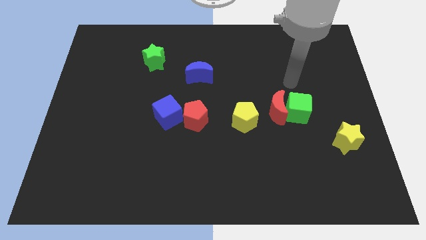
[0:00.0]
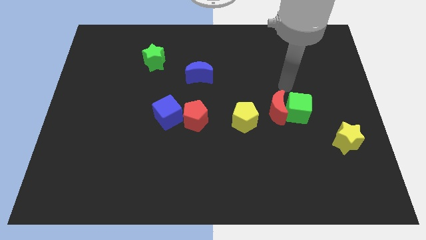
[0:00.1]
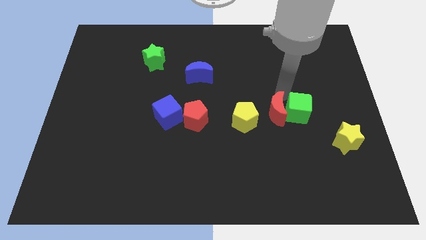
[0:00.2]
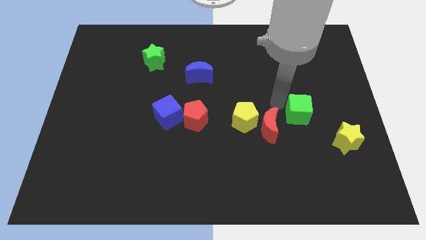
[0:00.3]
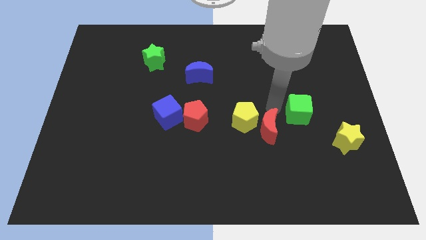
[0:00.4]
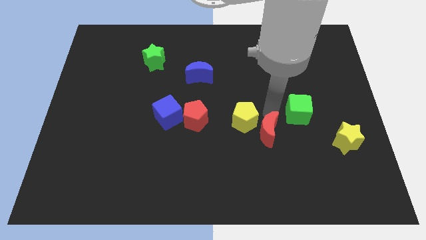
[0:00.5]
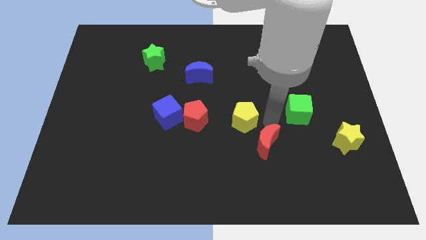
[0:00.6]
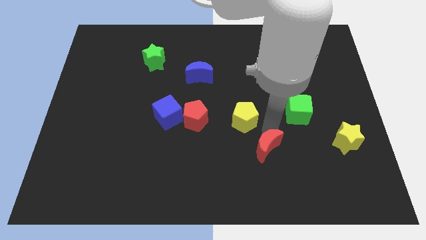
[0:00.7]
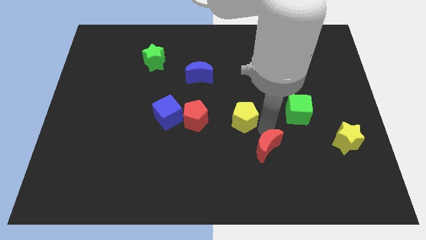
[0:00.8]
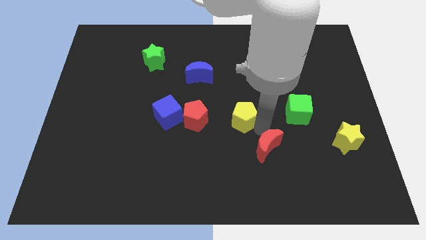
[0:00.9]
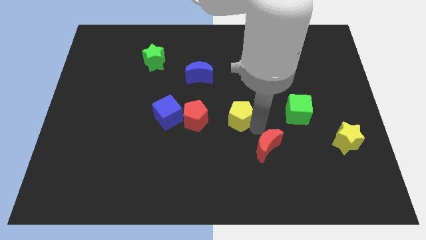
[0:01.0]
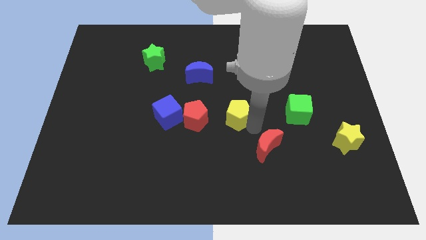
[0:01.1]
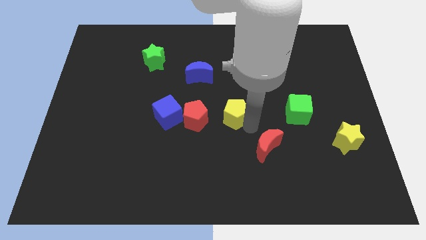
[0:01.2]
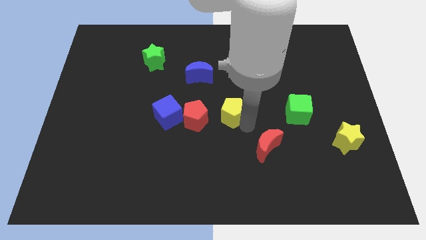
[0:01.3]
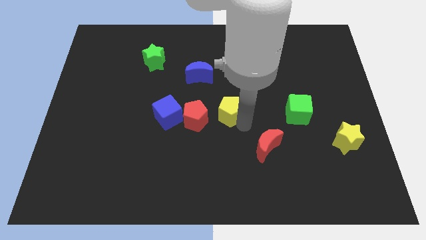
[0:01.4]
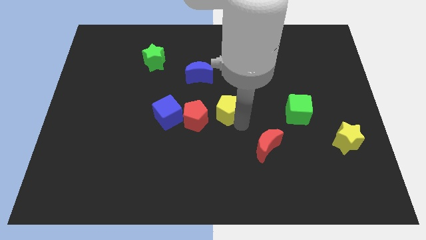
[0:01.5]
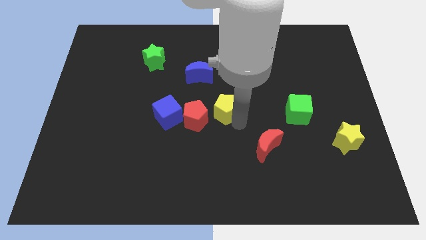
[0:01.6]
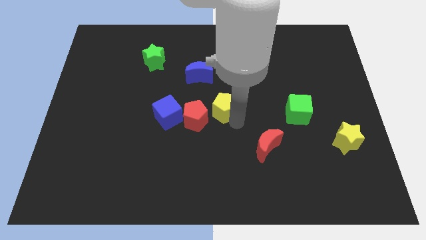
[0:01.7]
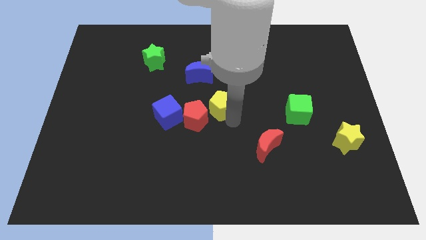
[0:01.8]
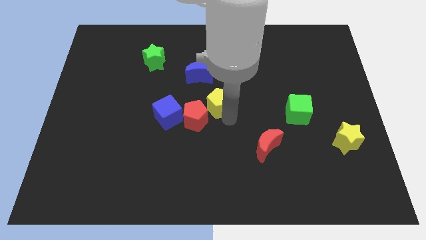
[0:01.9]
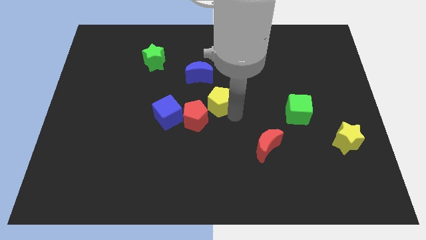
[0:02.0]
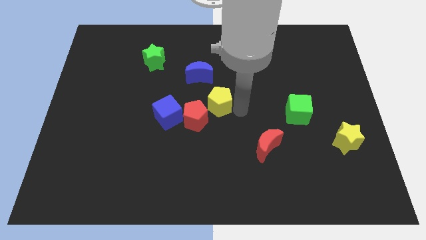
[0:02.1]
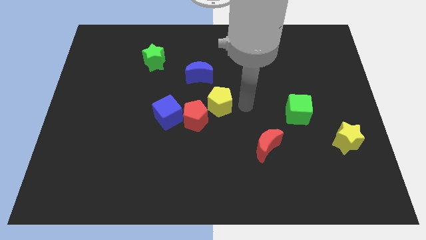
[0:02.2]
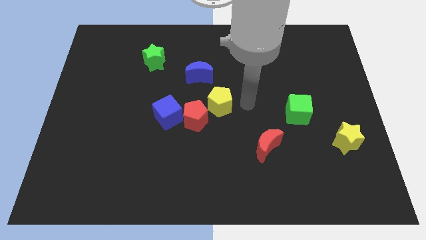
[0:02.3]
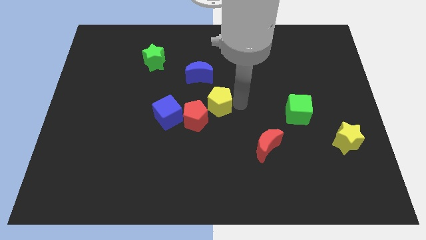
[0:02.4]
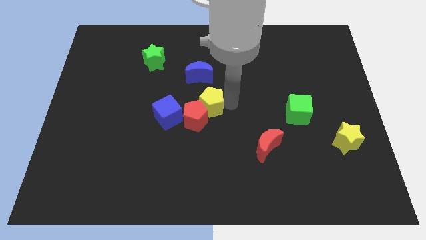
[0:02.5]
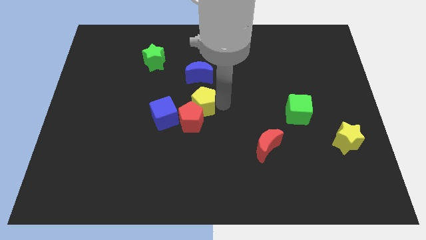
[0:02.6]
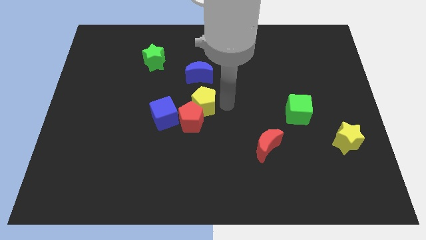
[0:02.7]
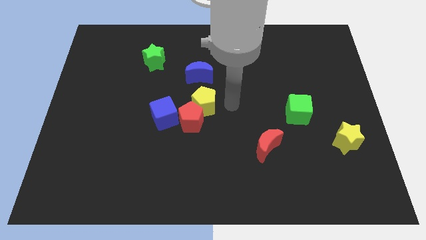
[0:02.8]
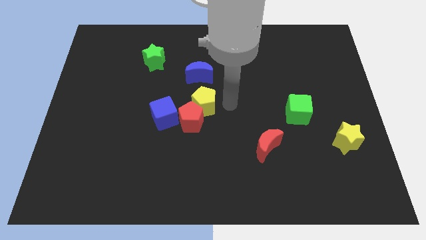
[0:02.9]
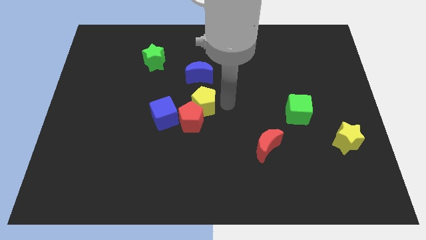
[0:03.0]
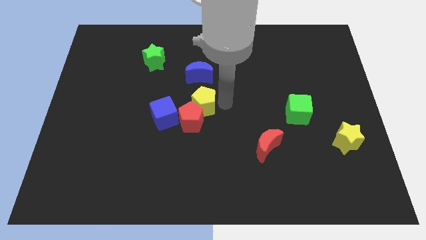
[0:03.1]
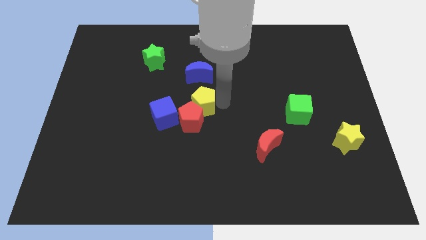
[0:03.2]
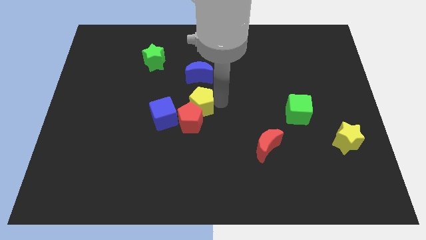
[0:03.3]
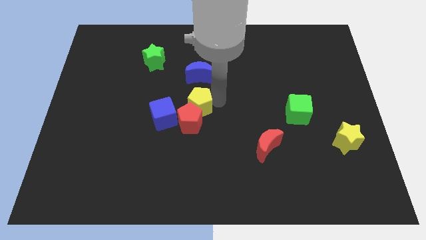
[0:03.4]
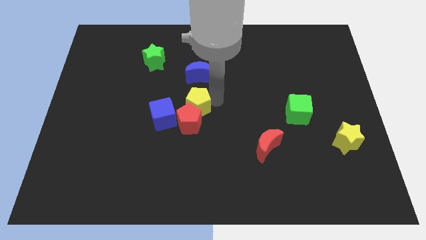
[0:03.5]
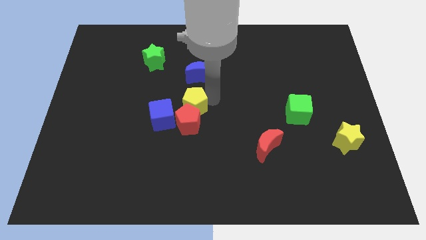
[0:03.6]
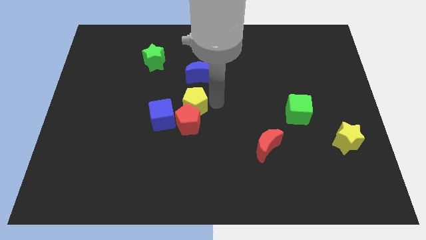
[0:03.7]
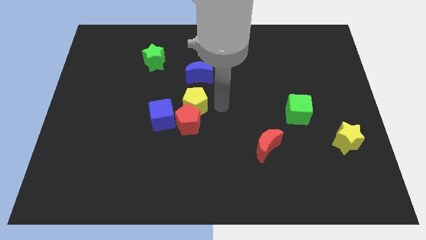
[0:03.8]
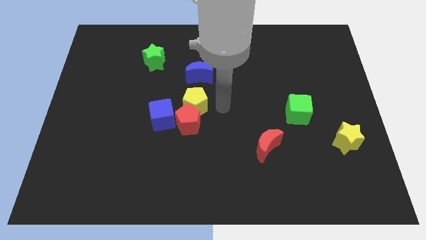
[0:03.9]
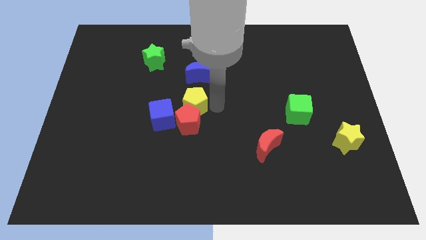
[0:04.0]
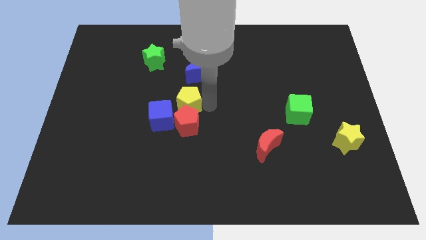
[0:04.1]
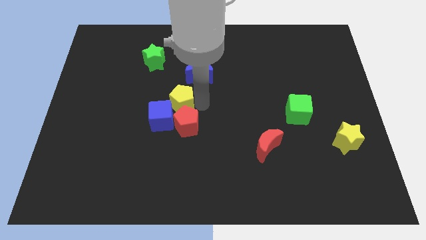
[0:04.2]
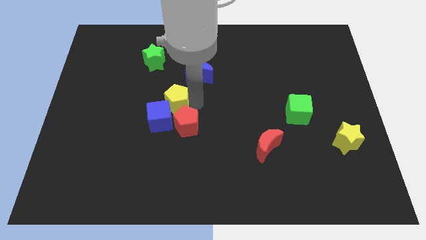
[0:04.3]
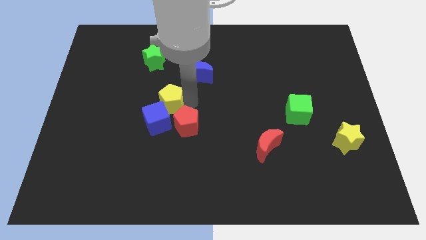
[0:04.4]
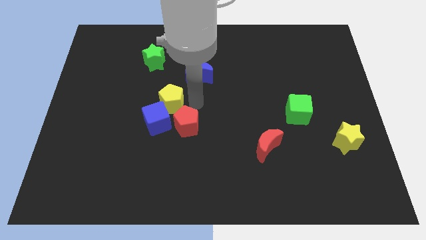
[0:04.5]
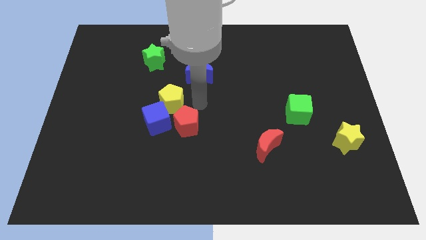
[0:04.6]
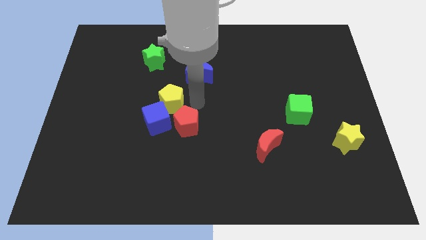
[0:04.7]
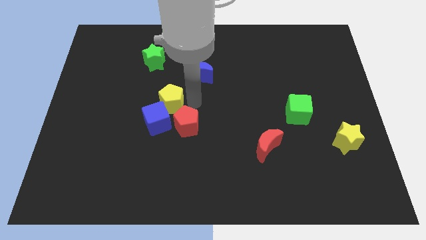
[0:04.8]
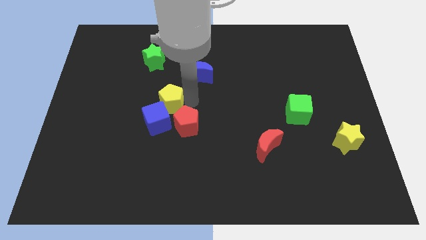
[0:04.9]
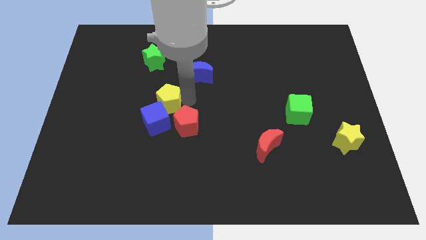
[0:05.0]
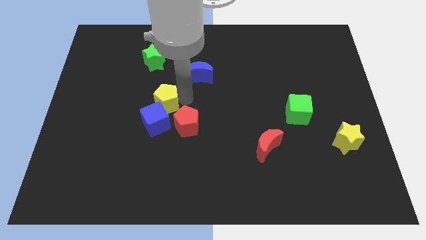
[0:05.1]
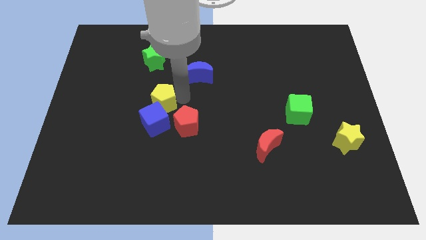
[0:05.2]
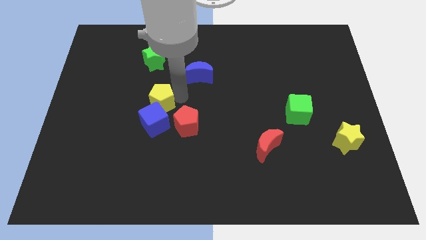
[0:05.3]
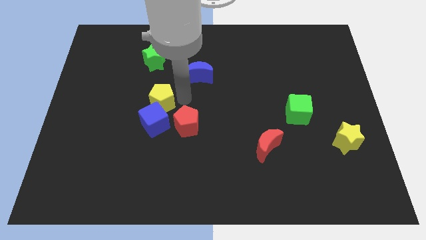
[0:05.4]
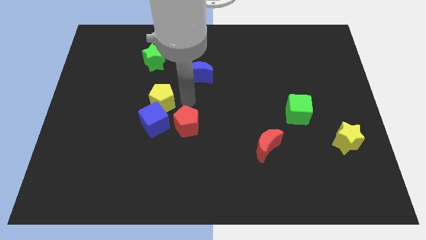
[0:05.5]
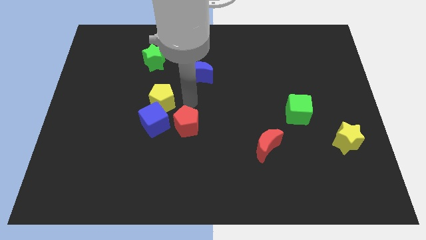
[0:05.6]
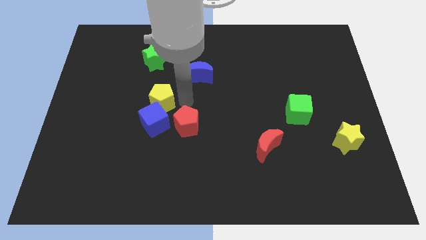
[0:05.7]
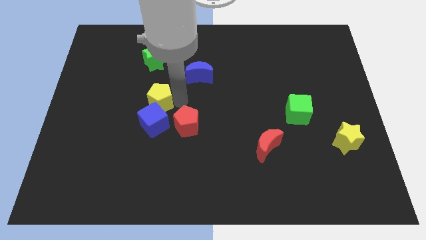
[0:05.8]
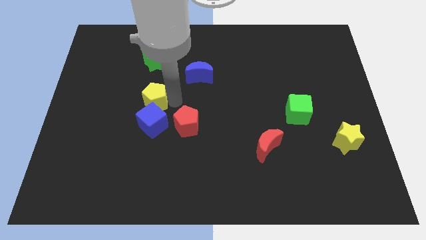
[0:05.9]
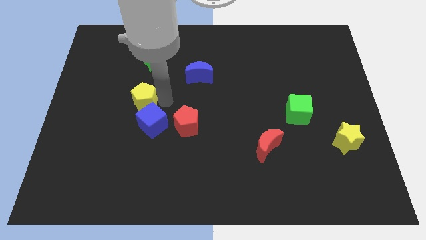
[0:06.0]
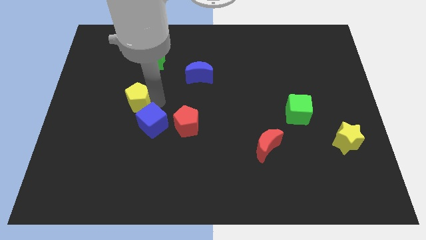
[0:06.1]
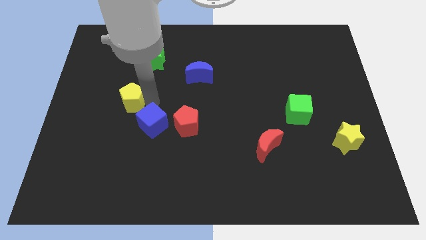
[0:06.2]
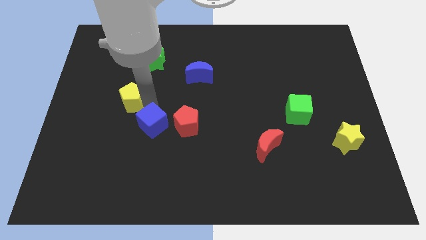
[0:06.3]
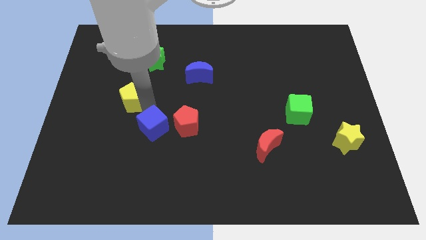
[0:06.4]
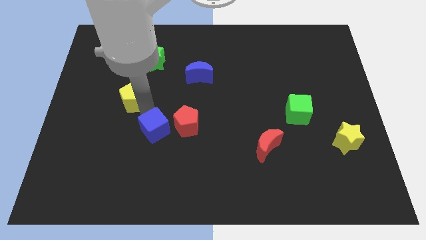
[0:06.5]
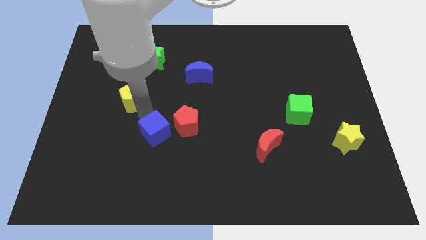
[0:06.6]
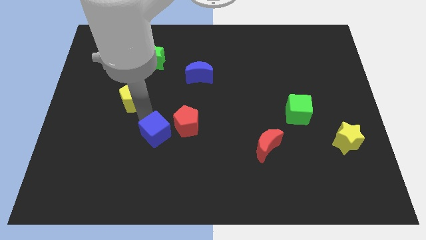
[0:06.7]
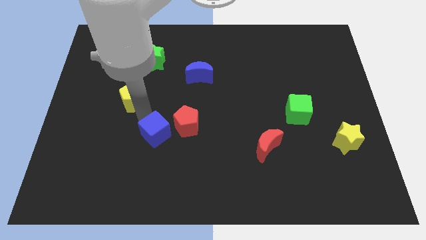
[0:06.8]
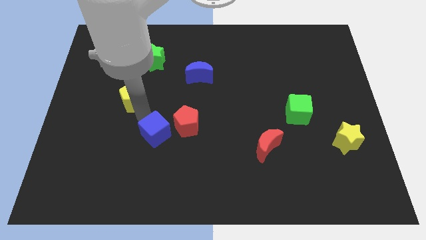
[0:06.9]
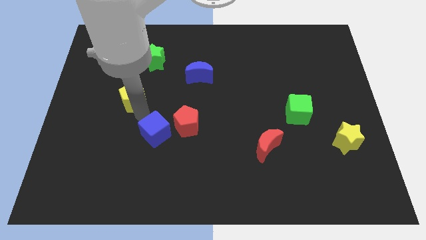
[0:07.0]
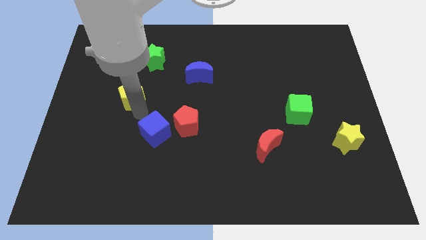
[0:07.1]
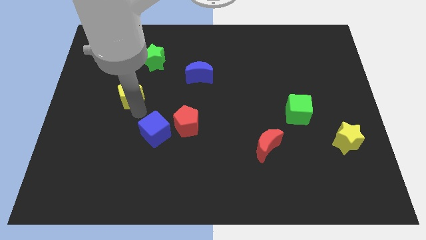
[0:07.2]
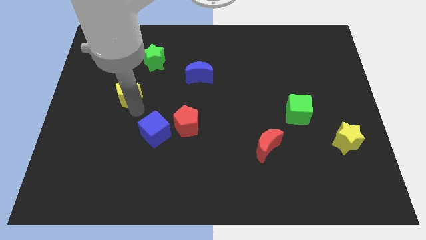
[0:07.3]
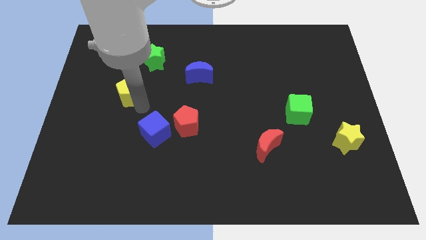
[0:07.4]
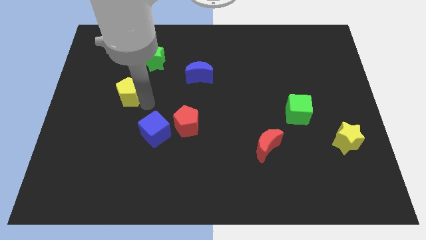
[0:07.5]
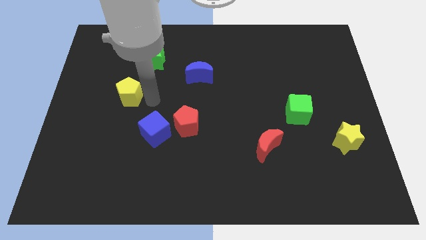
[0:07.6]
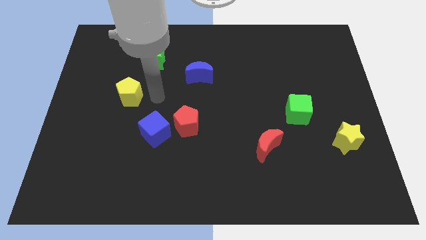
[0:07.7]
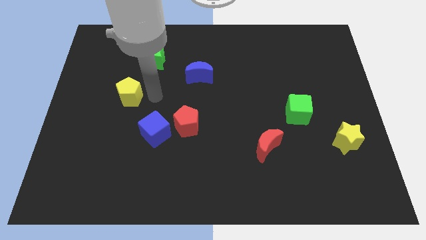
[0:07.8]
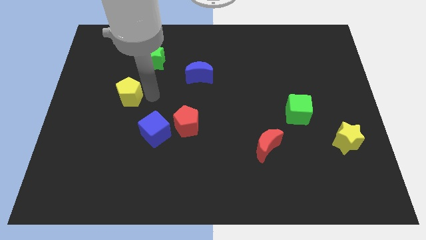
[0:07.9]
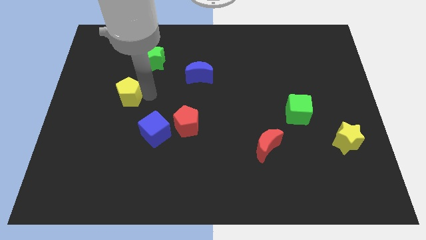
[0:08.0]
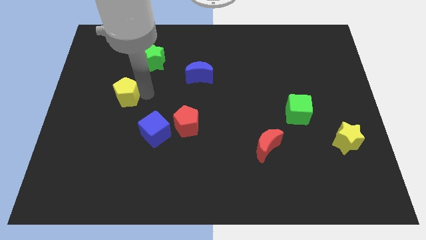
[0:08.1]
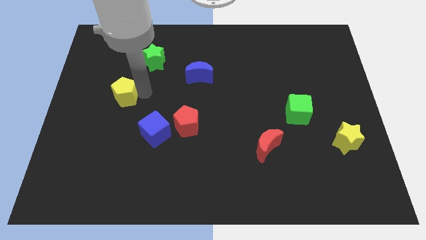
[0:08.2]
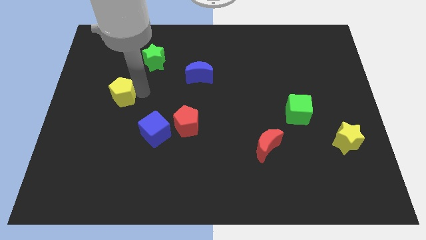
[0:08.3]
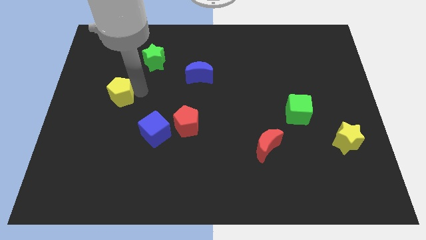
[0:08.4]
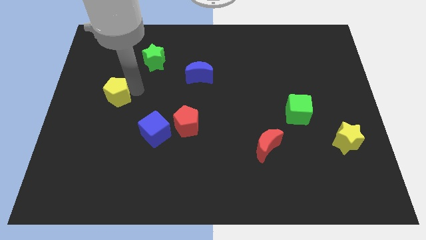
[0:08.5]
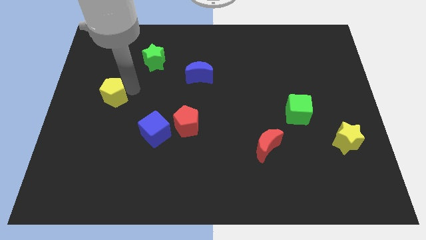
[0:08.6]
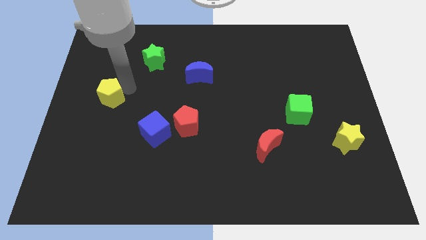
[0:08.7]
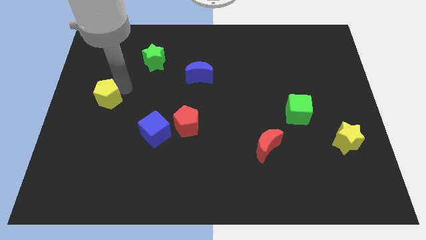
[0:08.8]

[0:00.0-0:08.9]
push the yellow pentagon to the left side
